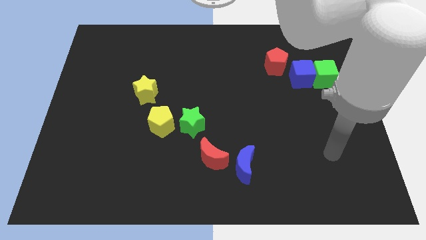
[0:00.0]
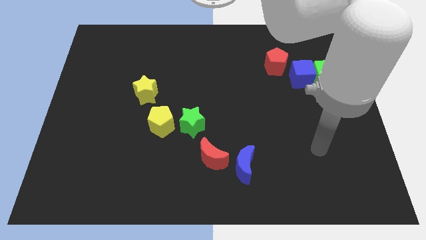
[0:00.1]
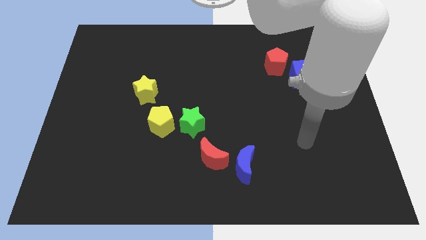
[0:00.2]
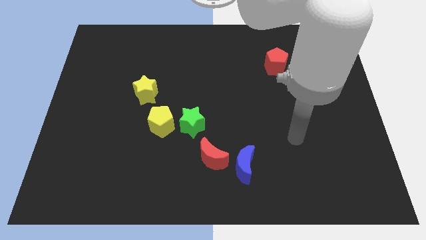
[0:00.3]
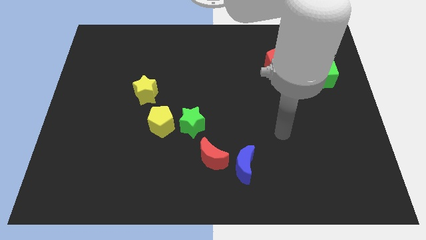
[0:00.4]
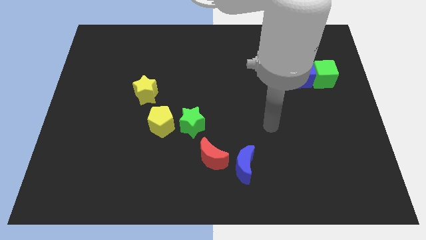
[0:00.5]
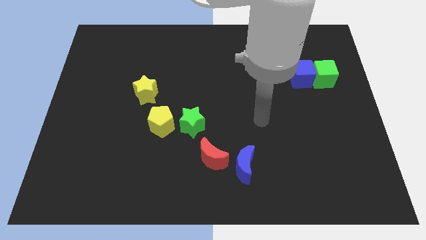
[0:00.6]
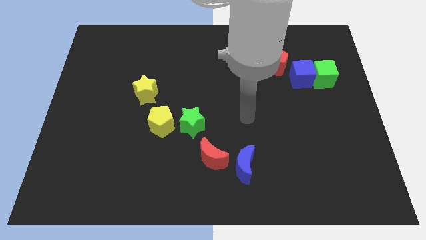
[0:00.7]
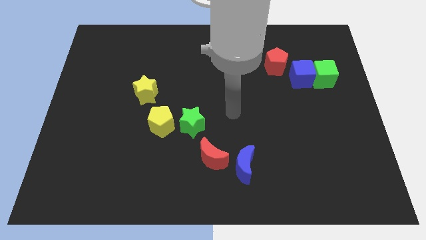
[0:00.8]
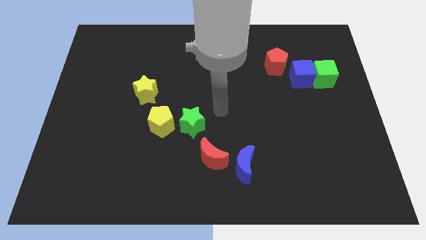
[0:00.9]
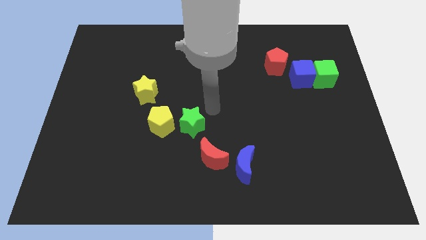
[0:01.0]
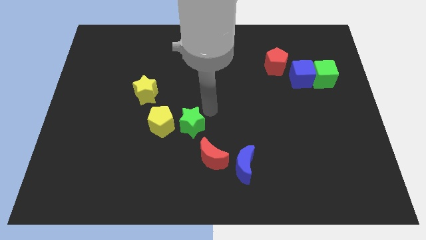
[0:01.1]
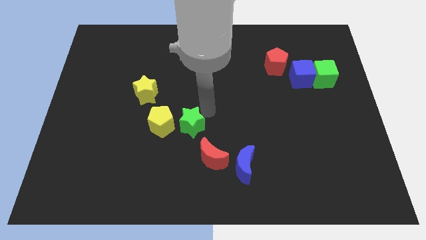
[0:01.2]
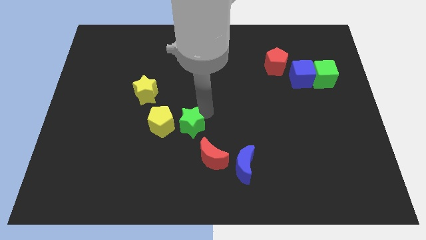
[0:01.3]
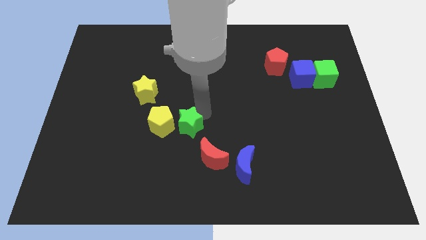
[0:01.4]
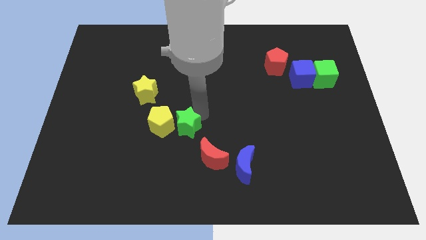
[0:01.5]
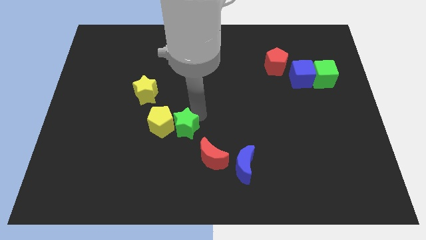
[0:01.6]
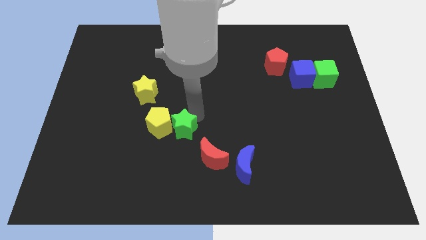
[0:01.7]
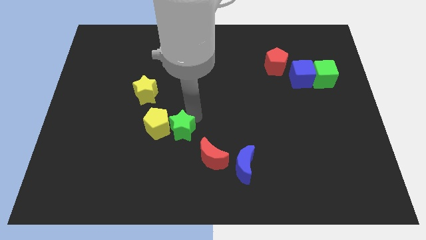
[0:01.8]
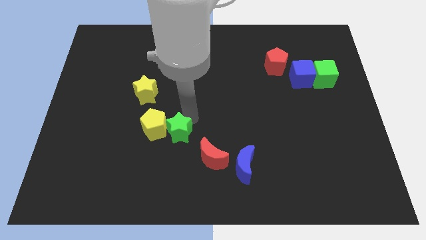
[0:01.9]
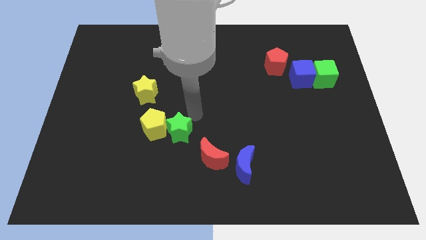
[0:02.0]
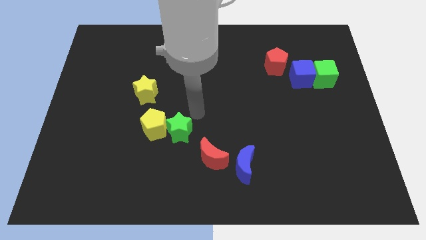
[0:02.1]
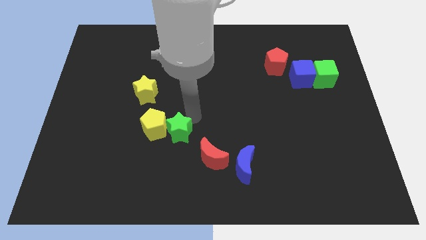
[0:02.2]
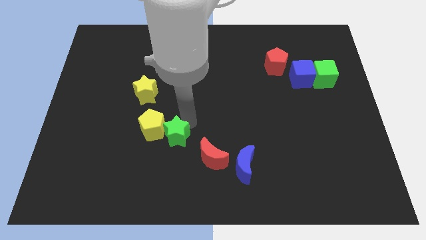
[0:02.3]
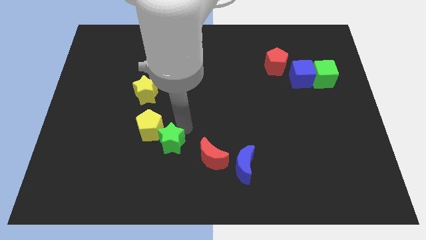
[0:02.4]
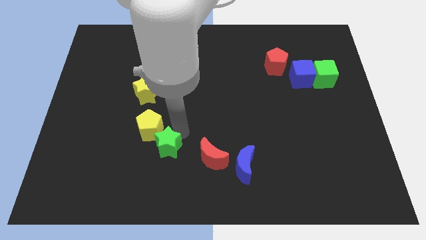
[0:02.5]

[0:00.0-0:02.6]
move the green star diagonally down and left somewhat

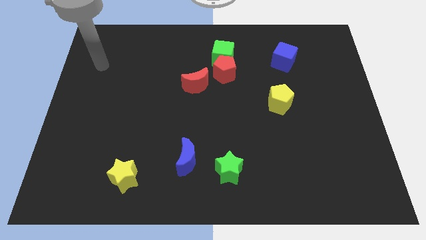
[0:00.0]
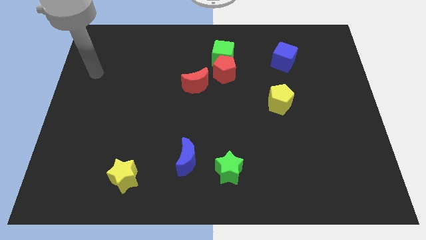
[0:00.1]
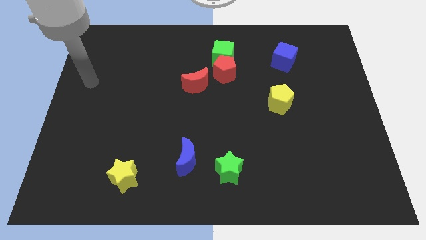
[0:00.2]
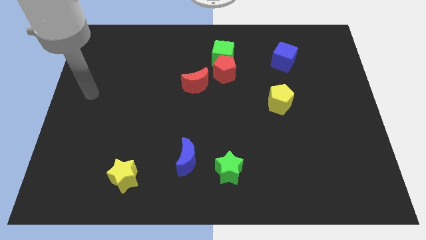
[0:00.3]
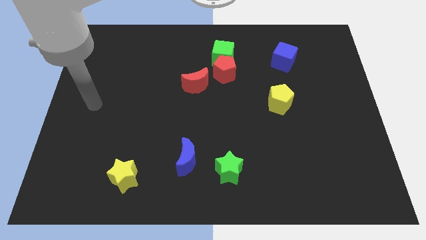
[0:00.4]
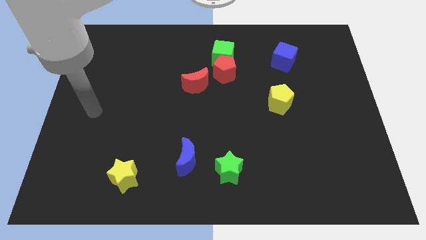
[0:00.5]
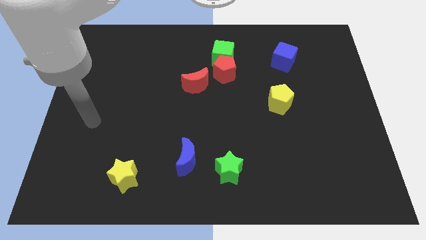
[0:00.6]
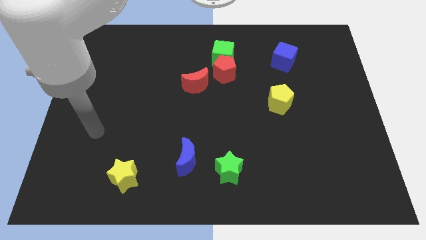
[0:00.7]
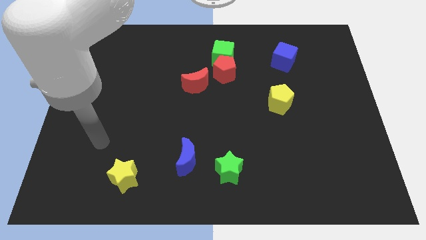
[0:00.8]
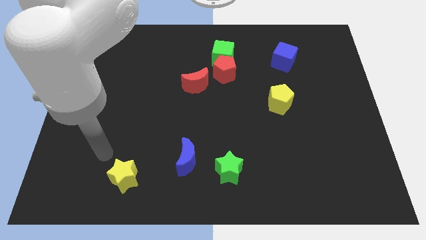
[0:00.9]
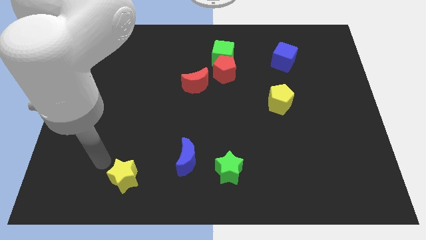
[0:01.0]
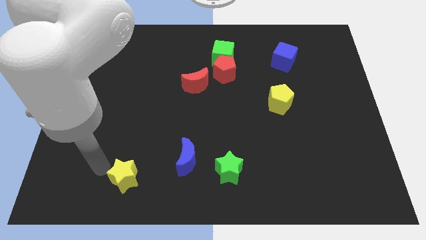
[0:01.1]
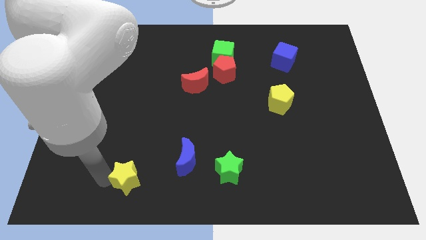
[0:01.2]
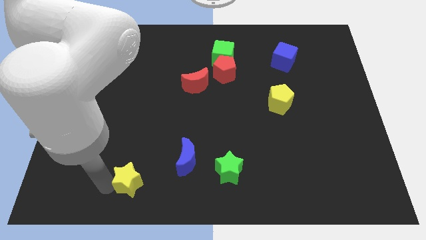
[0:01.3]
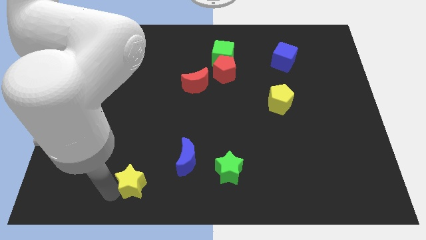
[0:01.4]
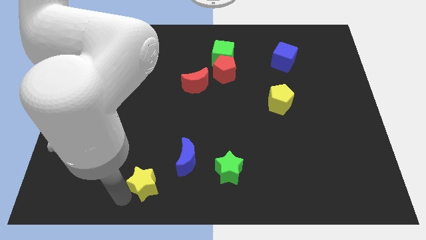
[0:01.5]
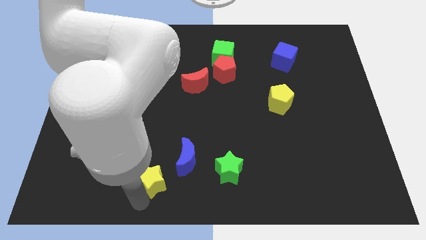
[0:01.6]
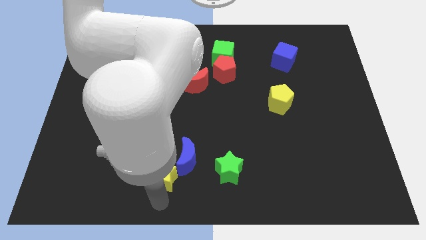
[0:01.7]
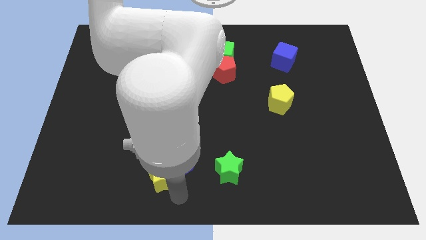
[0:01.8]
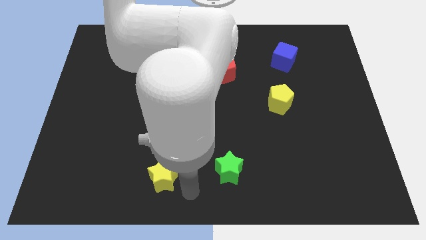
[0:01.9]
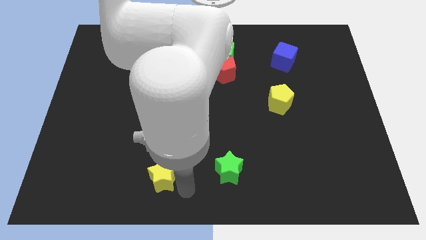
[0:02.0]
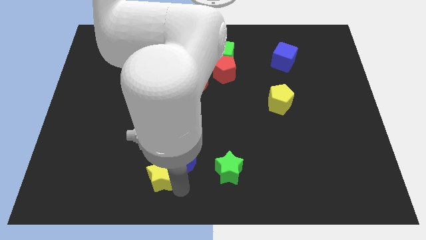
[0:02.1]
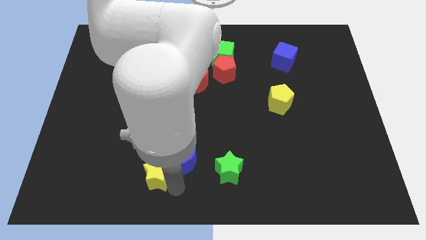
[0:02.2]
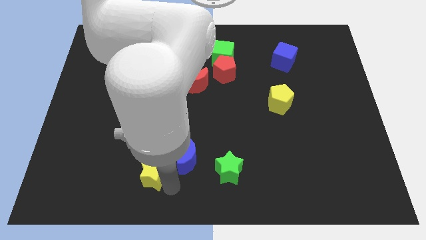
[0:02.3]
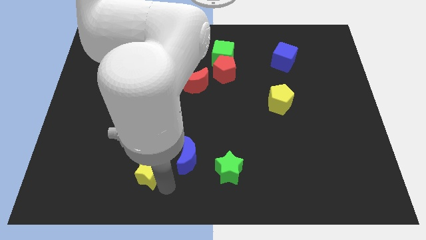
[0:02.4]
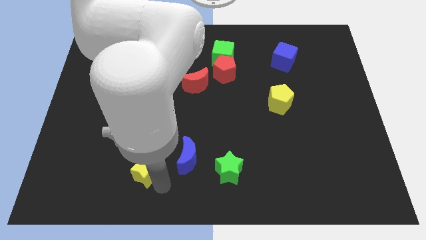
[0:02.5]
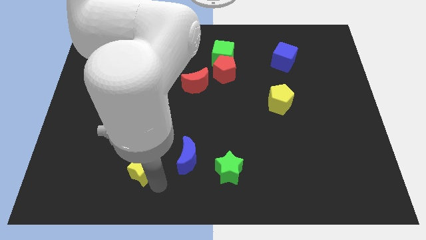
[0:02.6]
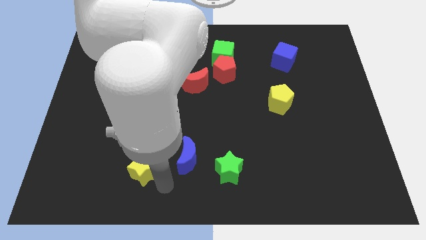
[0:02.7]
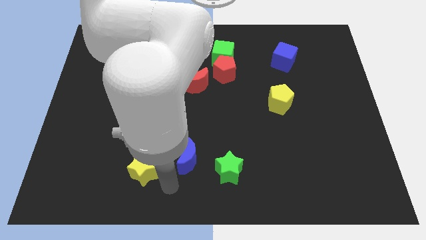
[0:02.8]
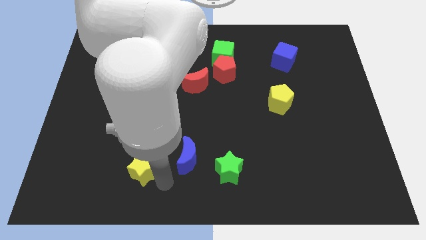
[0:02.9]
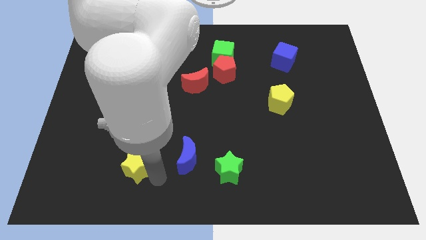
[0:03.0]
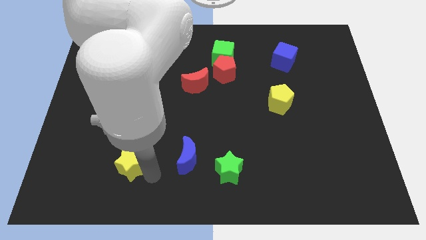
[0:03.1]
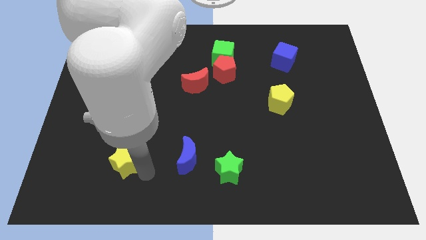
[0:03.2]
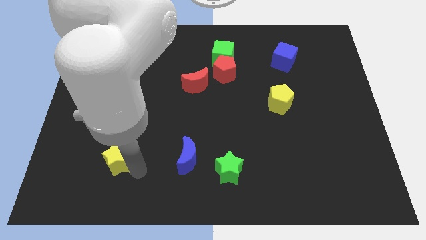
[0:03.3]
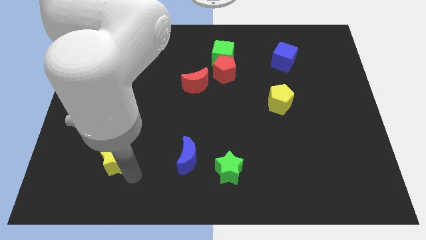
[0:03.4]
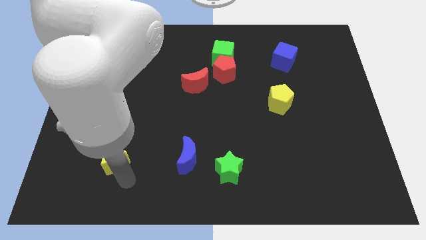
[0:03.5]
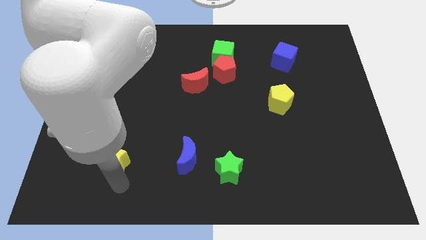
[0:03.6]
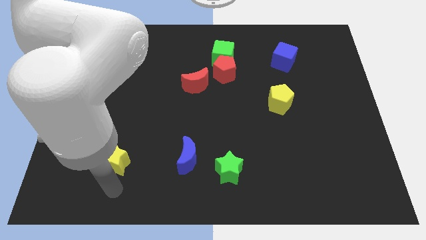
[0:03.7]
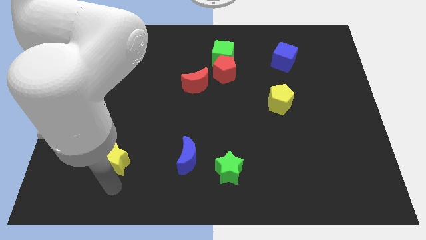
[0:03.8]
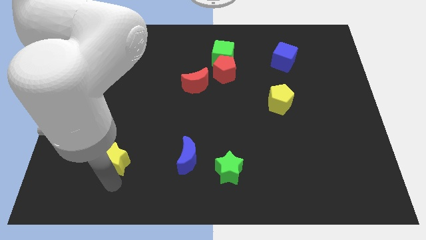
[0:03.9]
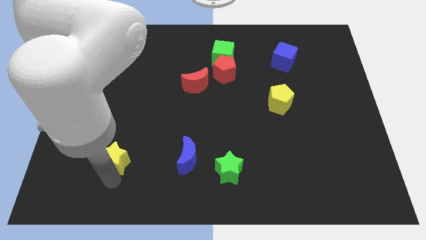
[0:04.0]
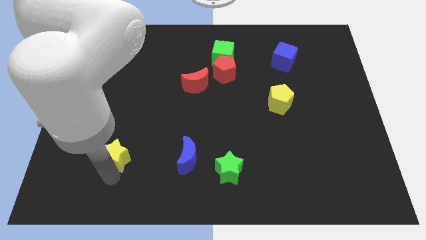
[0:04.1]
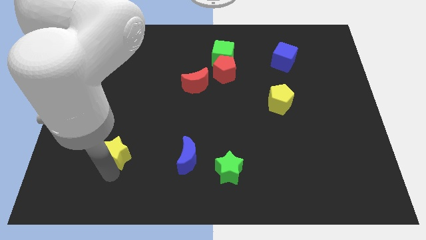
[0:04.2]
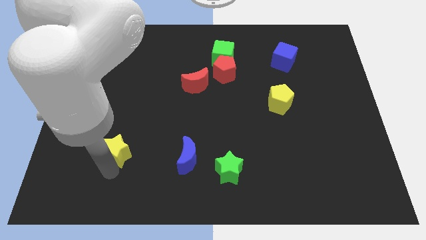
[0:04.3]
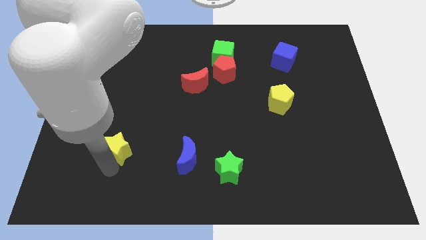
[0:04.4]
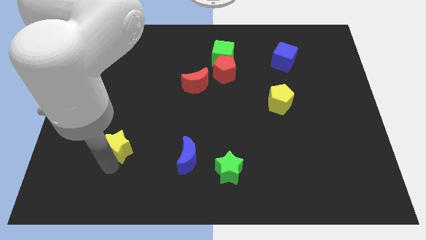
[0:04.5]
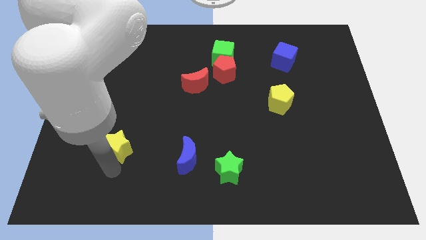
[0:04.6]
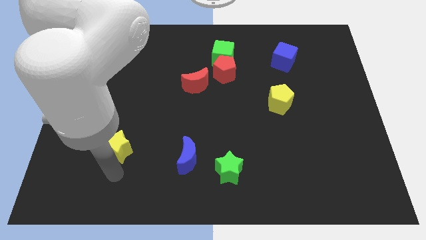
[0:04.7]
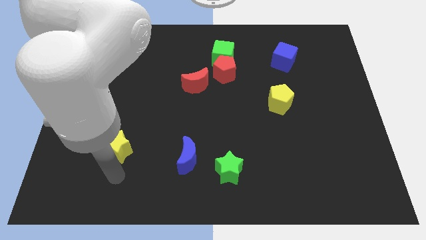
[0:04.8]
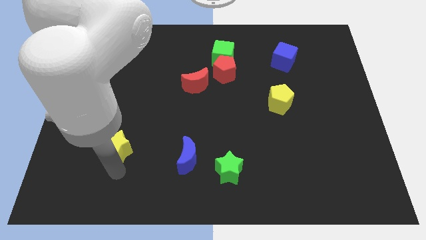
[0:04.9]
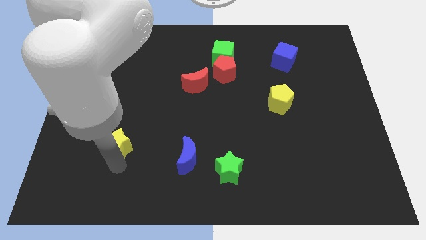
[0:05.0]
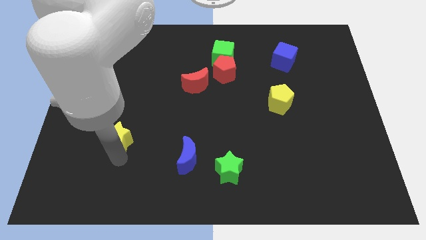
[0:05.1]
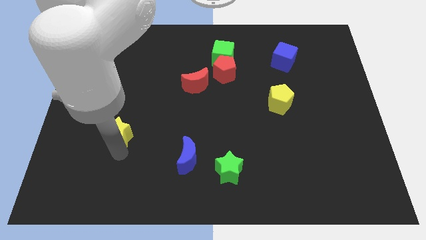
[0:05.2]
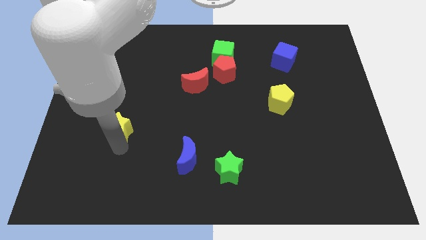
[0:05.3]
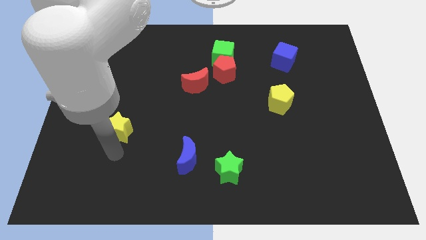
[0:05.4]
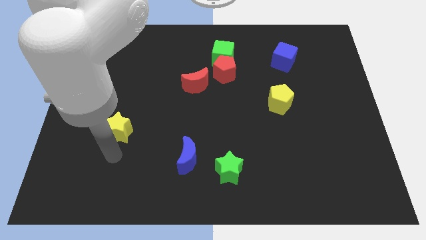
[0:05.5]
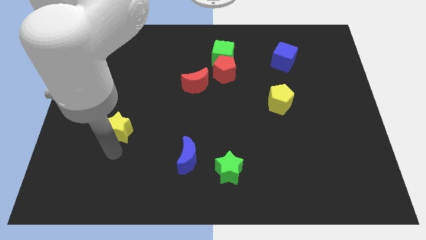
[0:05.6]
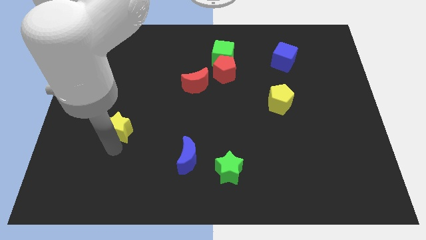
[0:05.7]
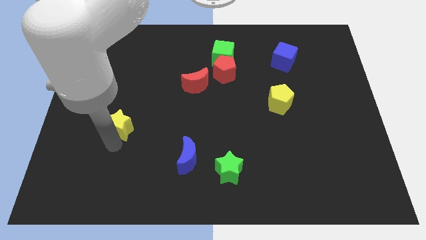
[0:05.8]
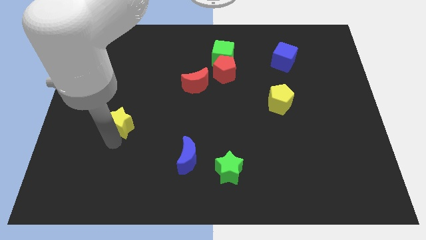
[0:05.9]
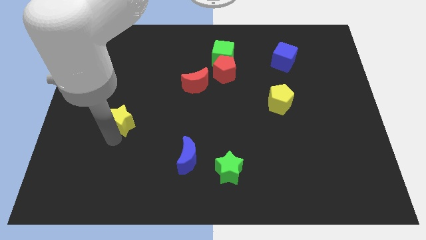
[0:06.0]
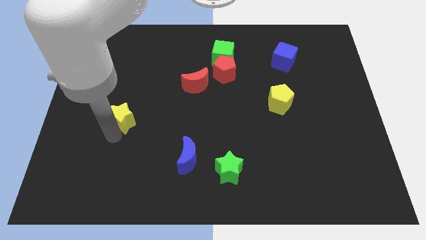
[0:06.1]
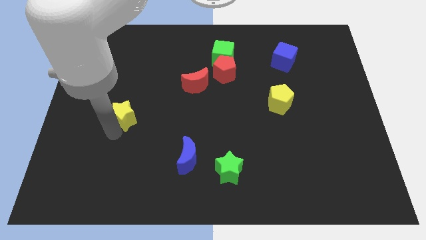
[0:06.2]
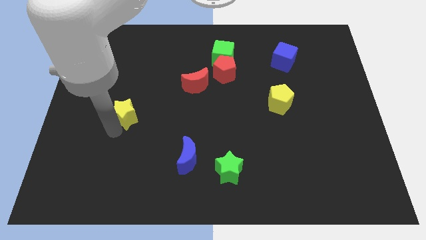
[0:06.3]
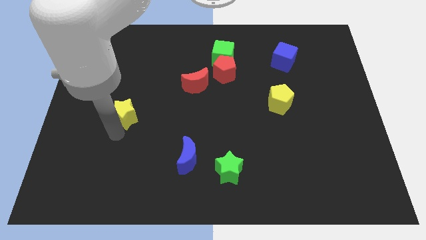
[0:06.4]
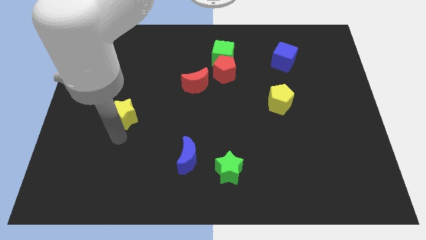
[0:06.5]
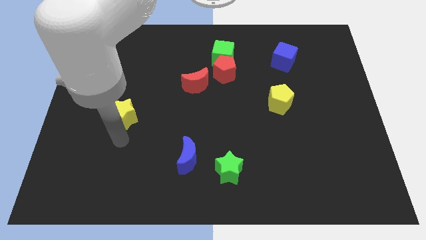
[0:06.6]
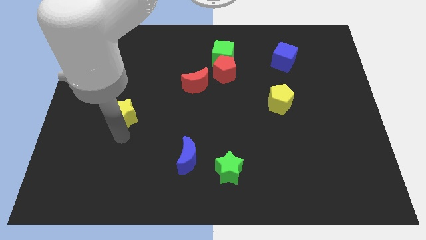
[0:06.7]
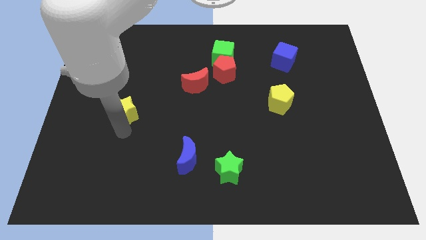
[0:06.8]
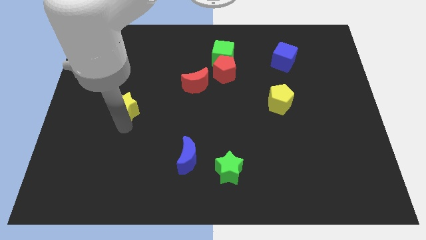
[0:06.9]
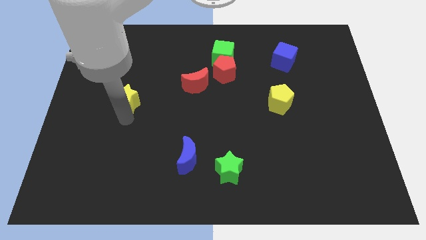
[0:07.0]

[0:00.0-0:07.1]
slide the yellow star up
